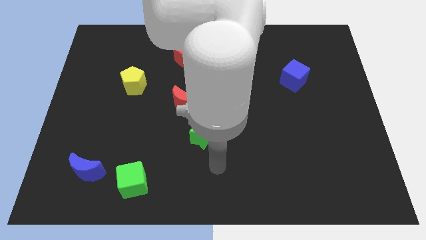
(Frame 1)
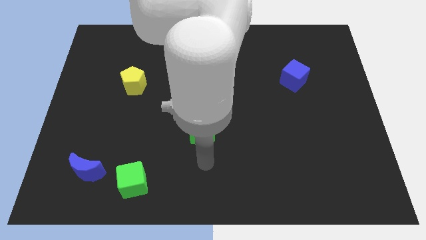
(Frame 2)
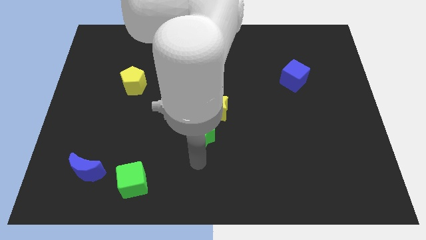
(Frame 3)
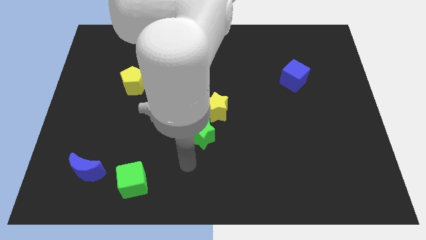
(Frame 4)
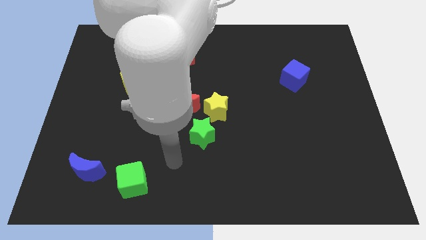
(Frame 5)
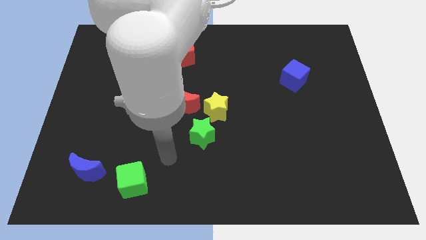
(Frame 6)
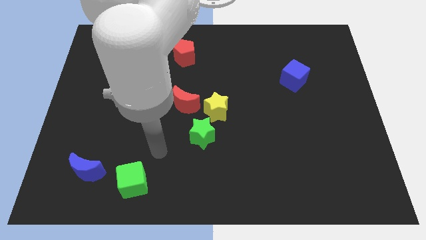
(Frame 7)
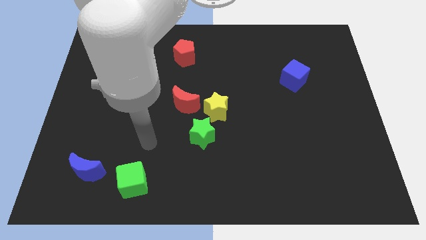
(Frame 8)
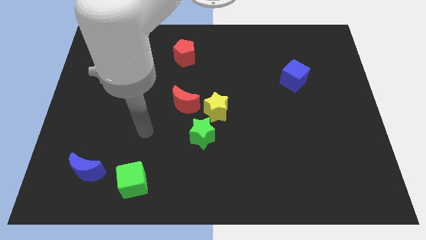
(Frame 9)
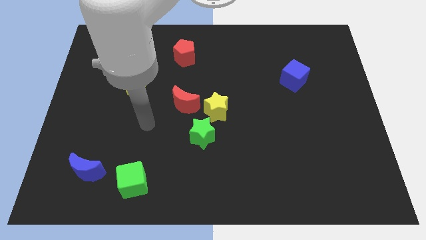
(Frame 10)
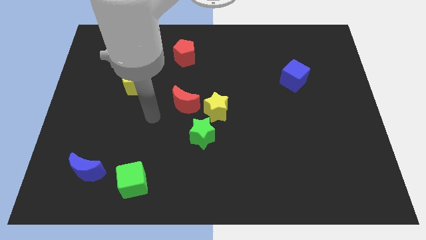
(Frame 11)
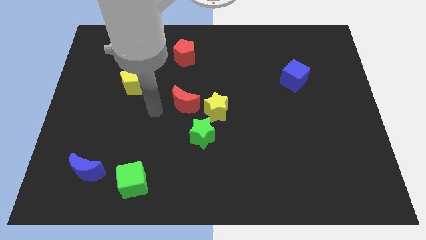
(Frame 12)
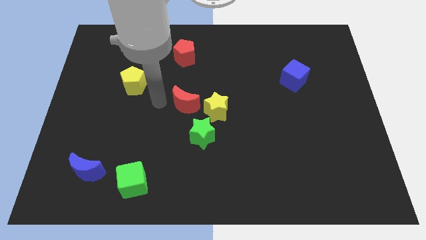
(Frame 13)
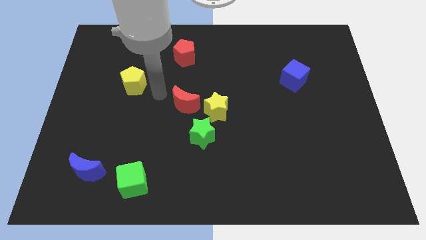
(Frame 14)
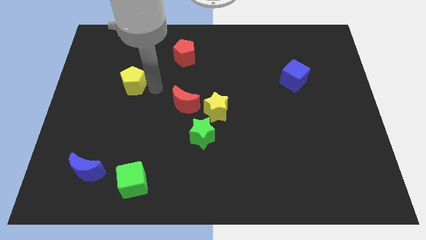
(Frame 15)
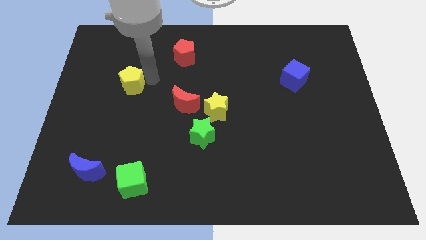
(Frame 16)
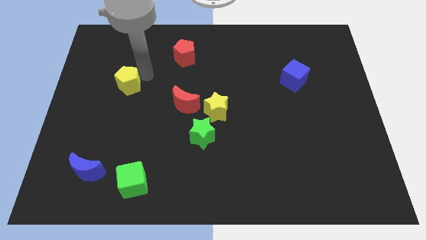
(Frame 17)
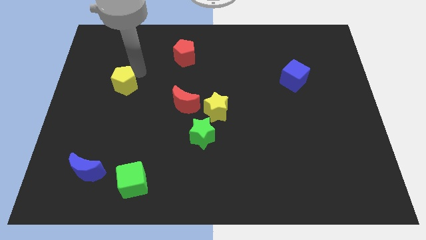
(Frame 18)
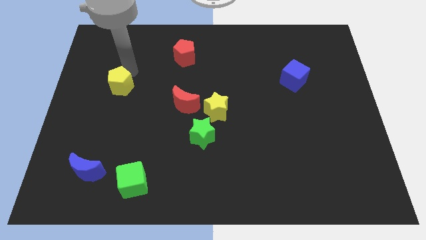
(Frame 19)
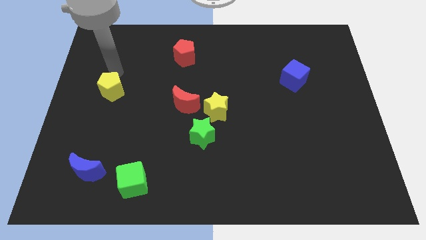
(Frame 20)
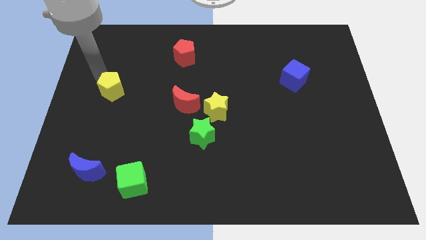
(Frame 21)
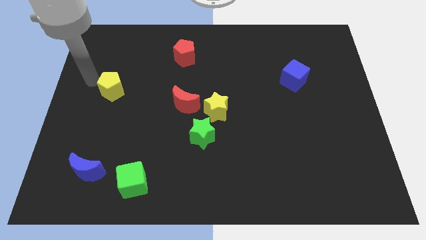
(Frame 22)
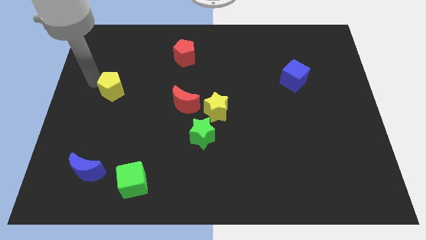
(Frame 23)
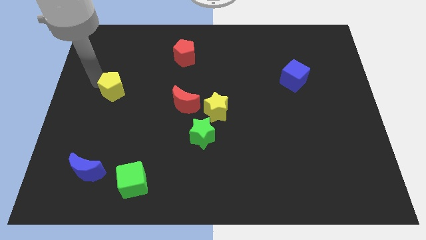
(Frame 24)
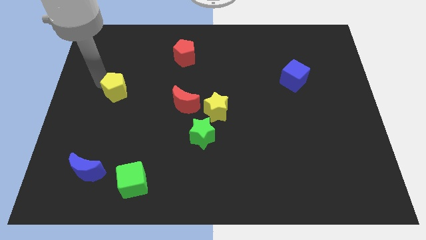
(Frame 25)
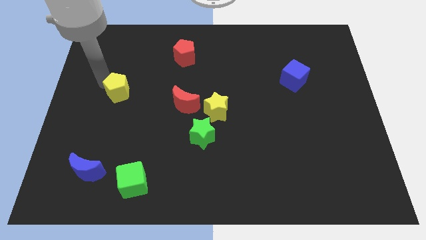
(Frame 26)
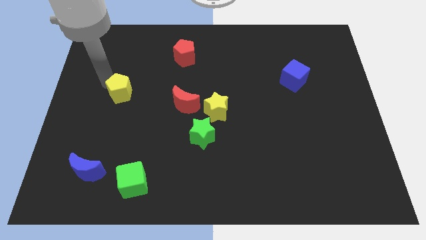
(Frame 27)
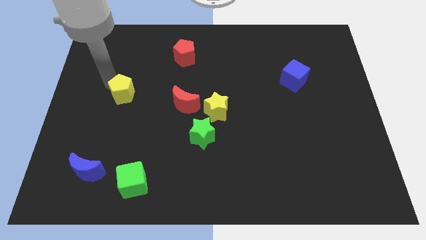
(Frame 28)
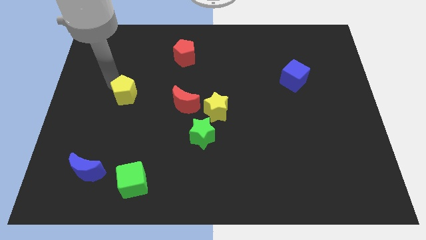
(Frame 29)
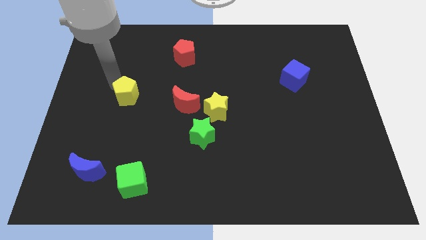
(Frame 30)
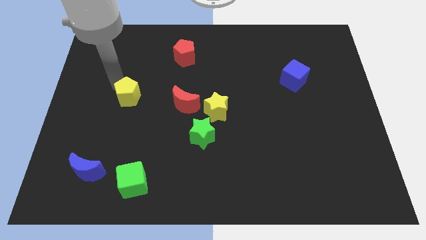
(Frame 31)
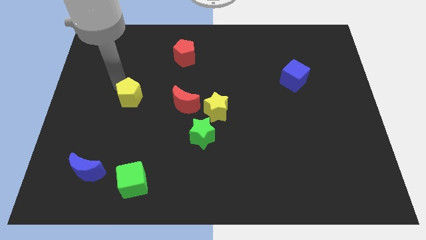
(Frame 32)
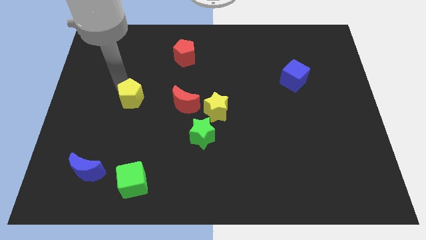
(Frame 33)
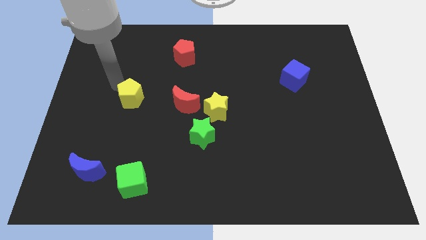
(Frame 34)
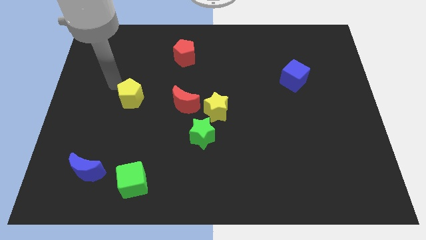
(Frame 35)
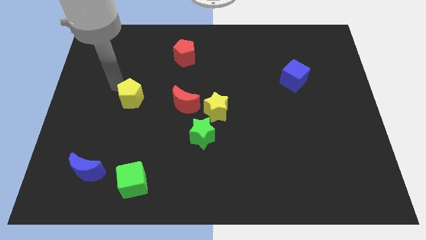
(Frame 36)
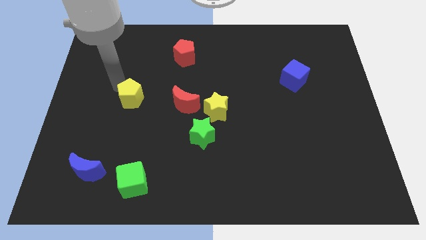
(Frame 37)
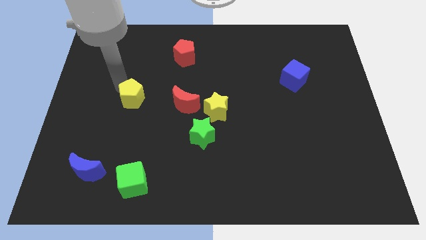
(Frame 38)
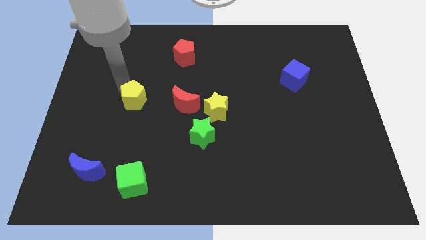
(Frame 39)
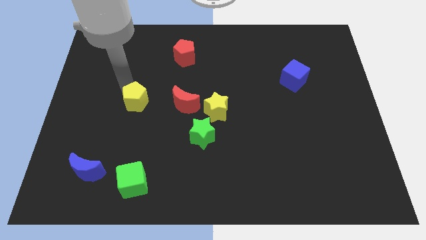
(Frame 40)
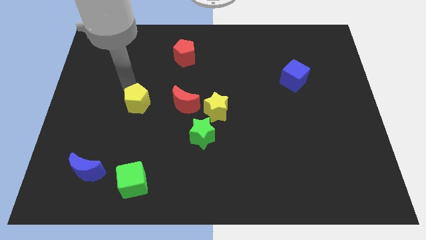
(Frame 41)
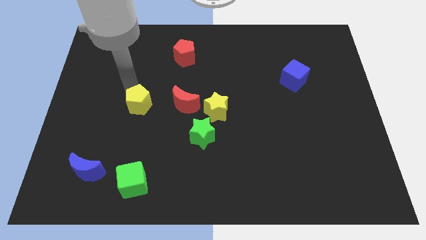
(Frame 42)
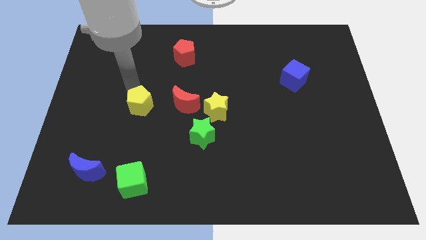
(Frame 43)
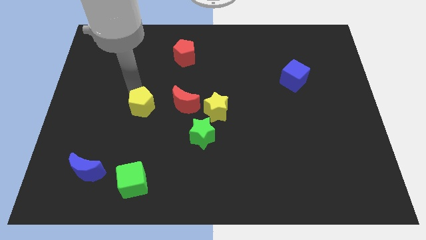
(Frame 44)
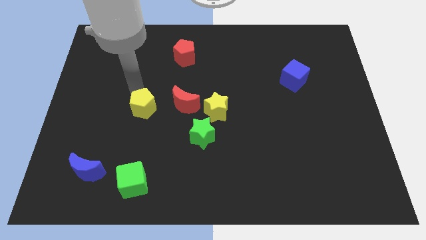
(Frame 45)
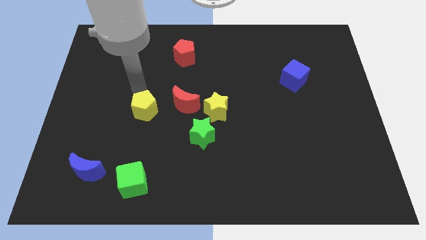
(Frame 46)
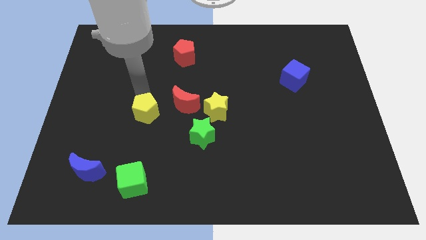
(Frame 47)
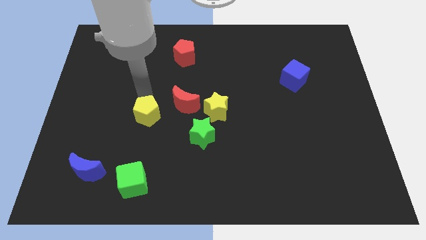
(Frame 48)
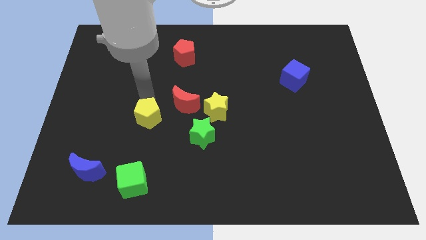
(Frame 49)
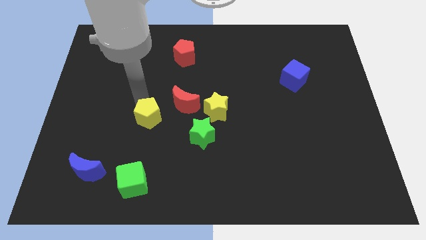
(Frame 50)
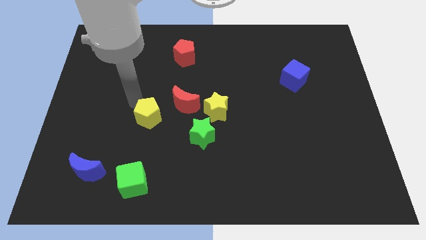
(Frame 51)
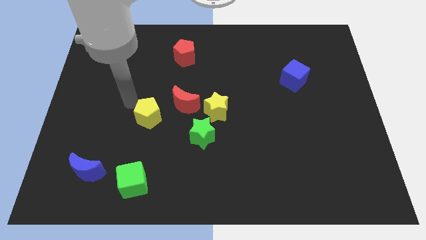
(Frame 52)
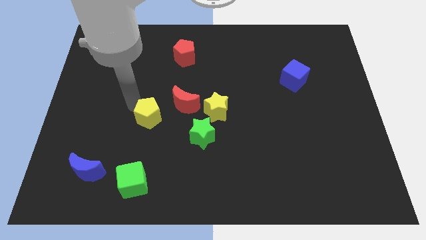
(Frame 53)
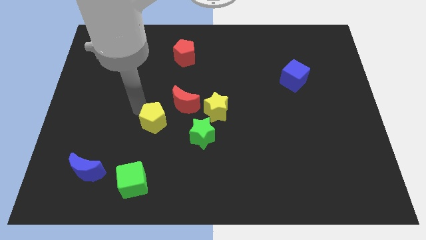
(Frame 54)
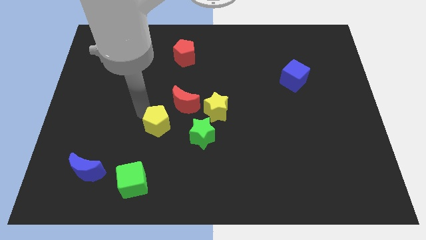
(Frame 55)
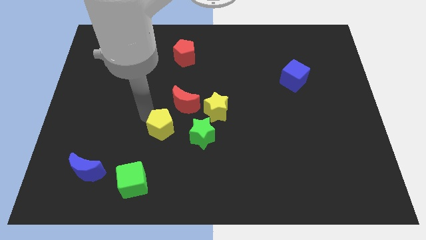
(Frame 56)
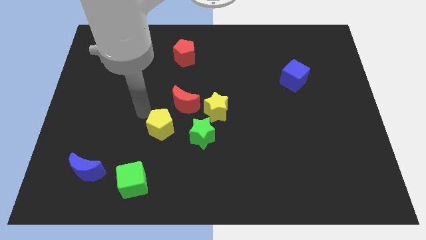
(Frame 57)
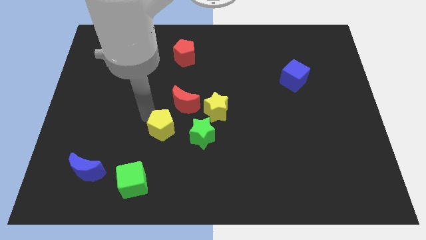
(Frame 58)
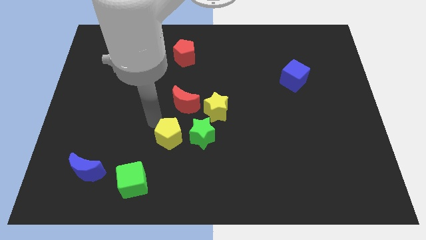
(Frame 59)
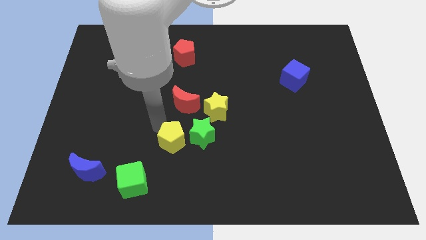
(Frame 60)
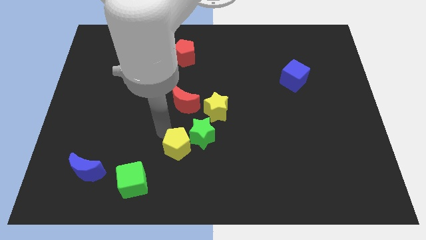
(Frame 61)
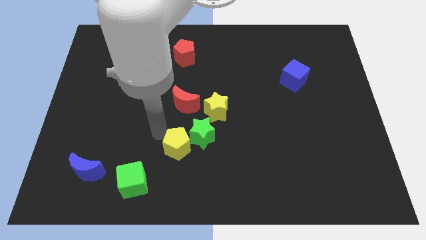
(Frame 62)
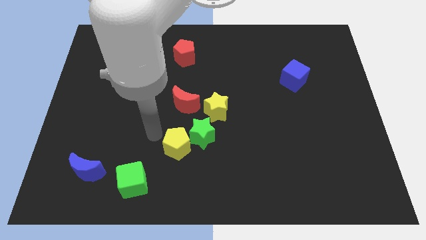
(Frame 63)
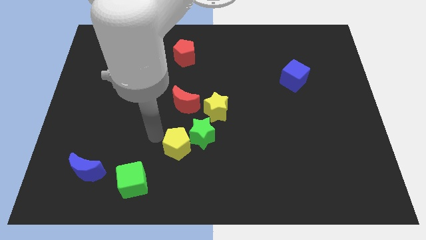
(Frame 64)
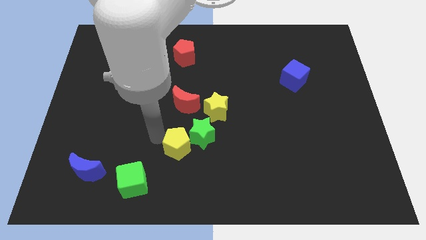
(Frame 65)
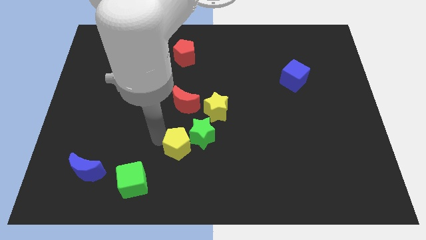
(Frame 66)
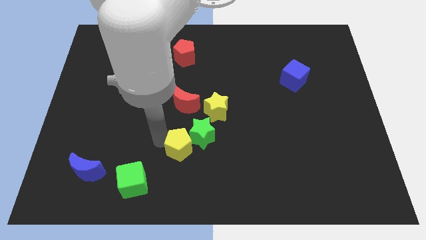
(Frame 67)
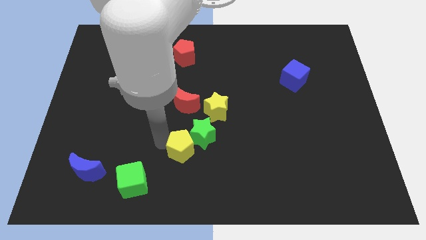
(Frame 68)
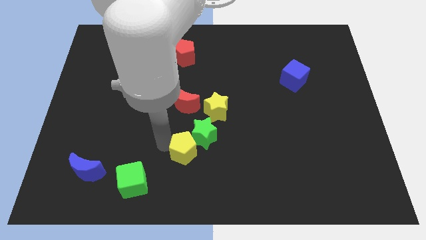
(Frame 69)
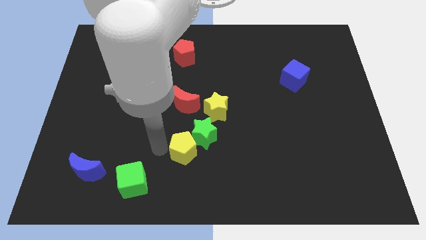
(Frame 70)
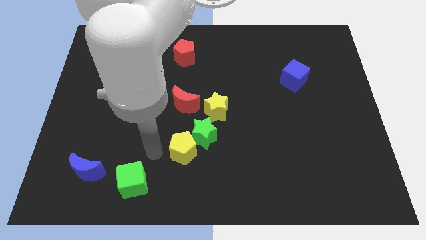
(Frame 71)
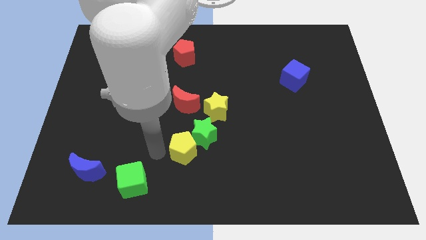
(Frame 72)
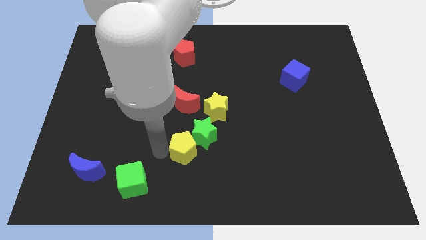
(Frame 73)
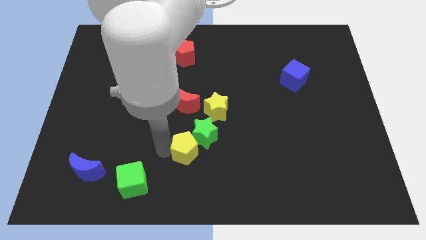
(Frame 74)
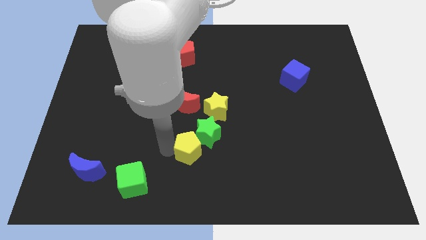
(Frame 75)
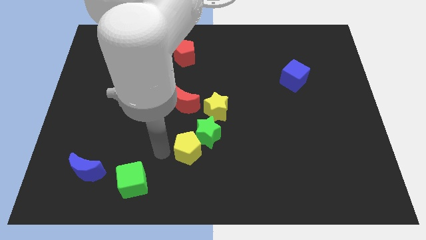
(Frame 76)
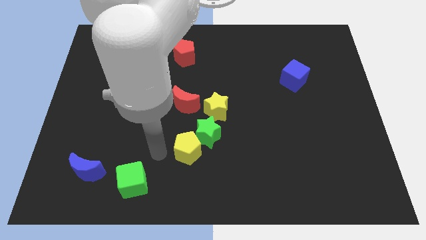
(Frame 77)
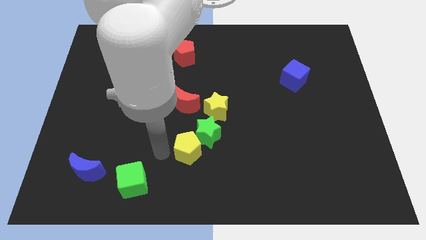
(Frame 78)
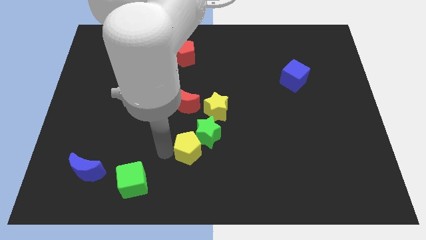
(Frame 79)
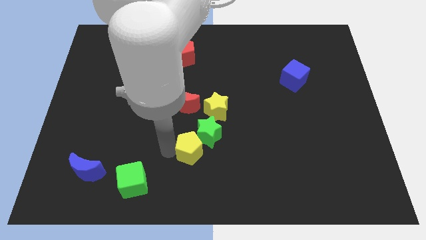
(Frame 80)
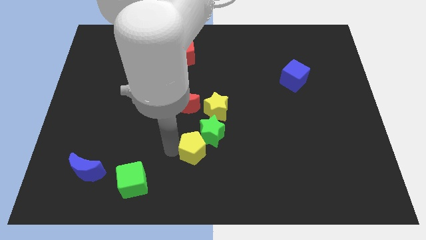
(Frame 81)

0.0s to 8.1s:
push the yellow pentagon to the bottom side of the yellow star

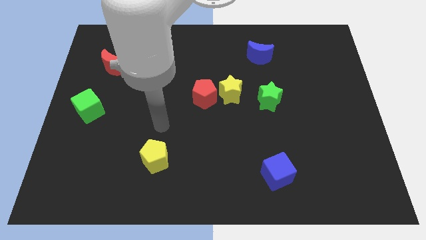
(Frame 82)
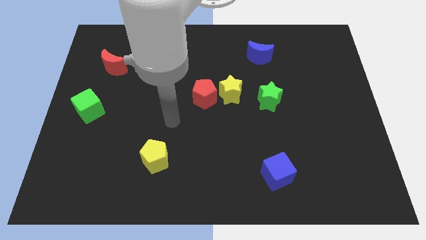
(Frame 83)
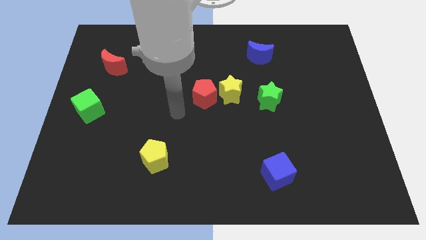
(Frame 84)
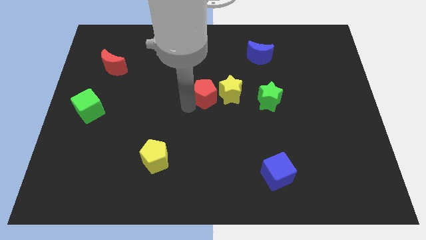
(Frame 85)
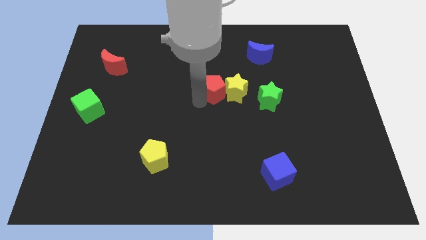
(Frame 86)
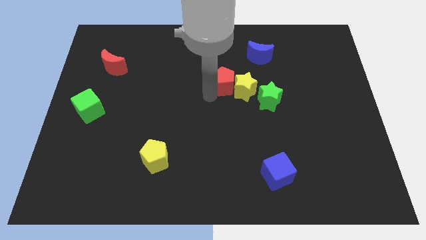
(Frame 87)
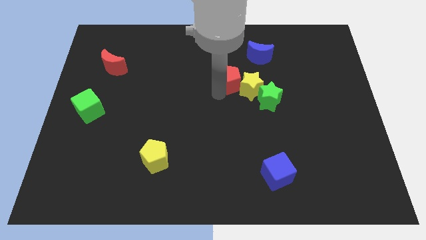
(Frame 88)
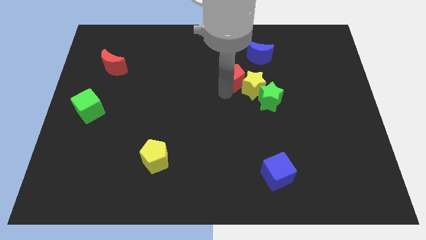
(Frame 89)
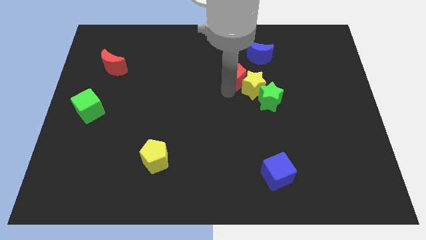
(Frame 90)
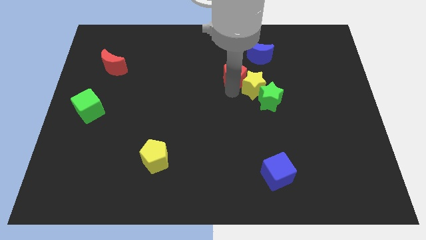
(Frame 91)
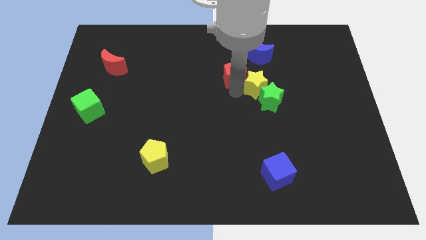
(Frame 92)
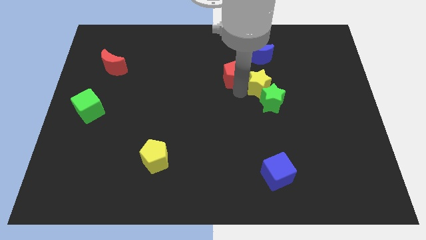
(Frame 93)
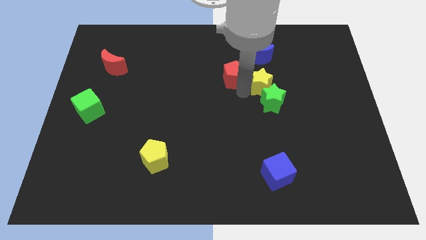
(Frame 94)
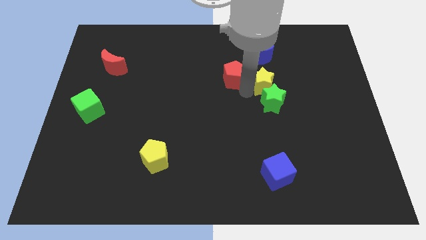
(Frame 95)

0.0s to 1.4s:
push the yellow star to the top right of the green star
